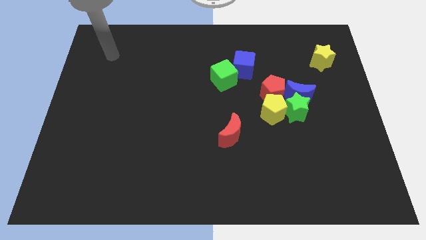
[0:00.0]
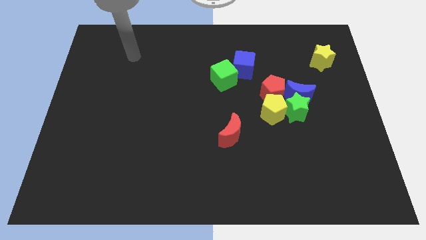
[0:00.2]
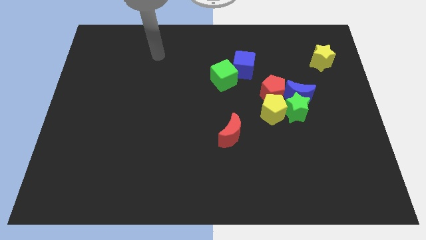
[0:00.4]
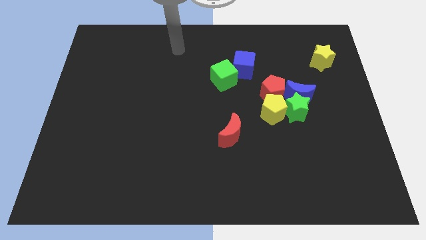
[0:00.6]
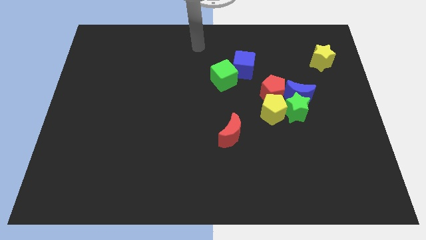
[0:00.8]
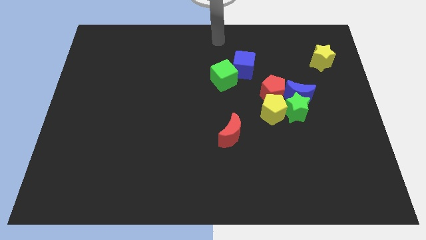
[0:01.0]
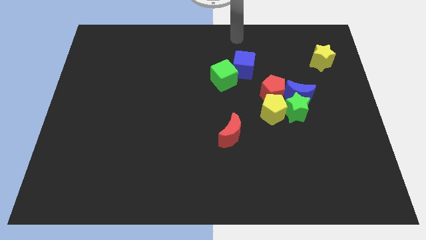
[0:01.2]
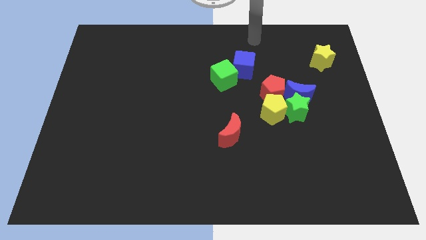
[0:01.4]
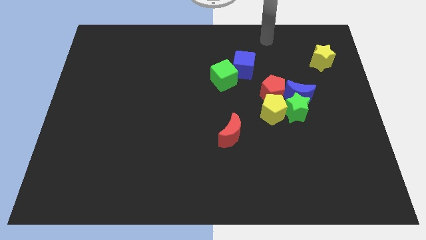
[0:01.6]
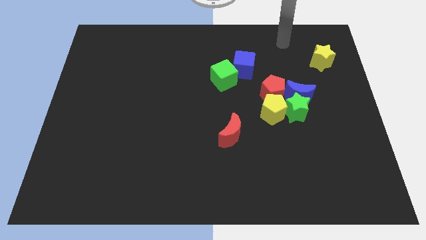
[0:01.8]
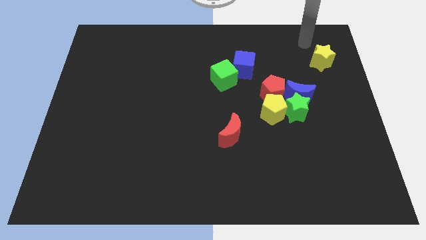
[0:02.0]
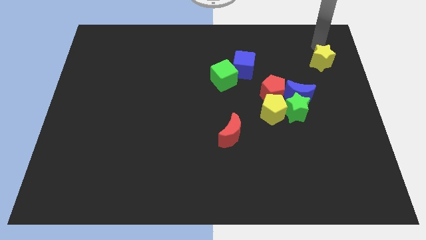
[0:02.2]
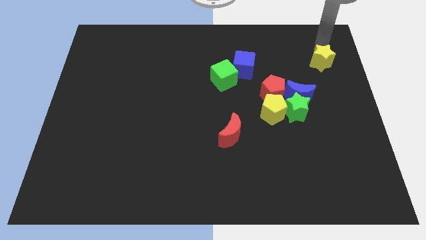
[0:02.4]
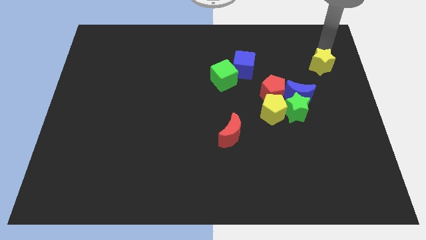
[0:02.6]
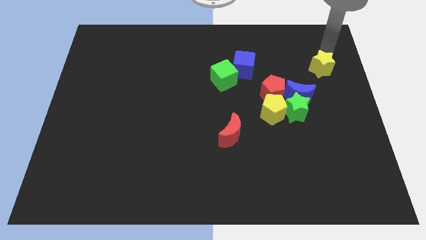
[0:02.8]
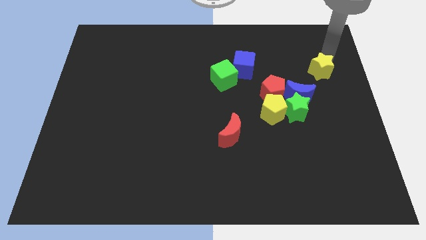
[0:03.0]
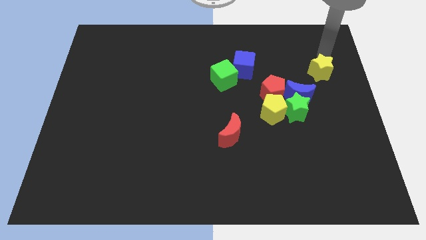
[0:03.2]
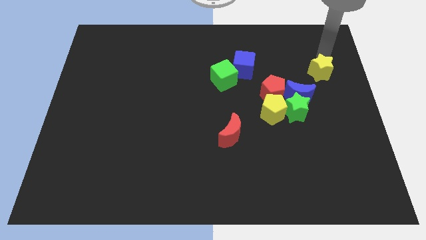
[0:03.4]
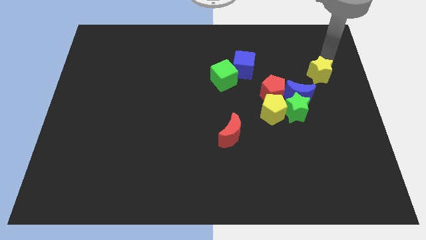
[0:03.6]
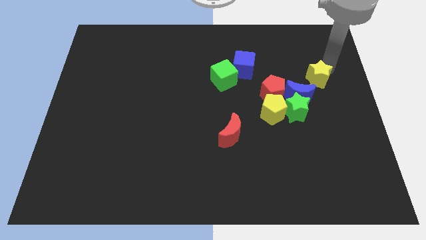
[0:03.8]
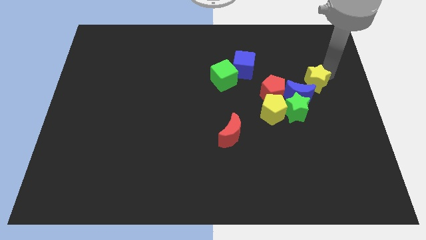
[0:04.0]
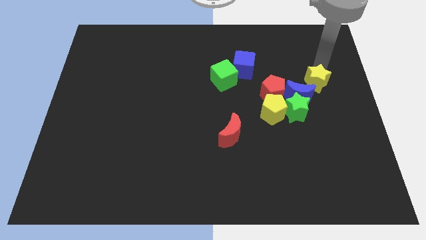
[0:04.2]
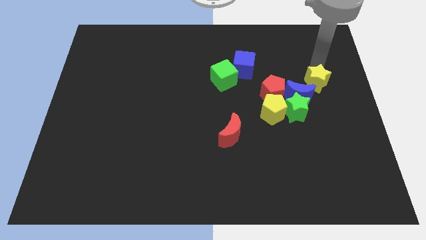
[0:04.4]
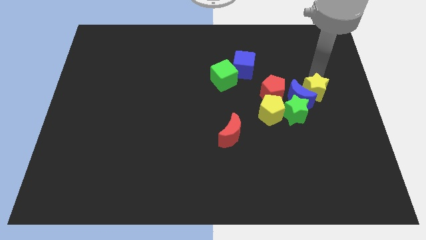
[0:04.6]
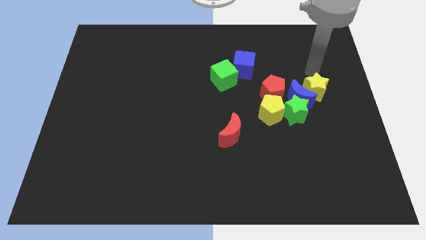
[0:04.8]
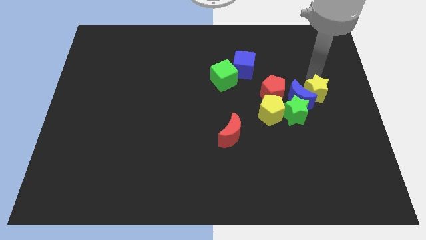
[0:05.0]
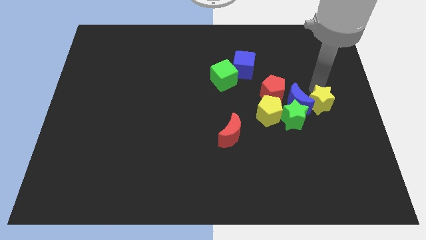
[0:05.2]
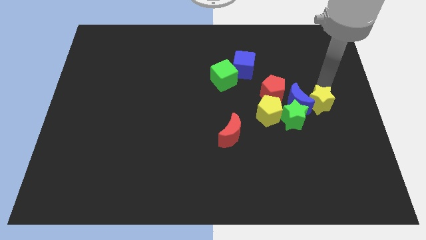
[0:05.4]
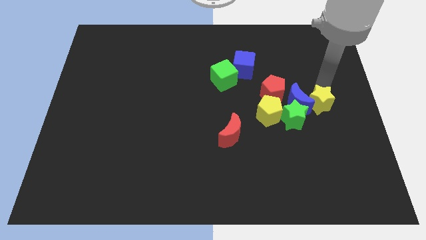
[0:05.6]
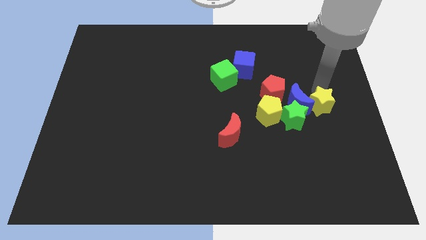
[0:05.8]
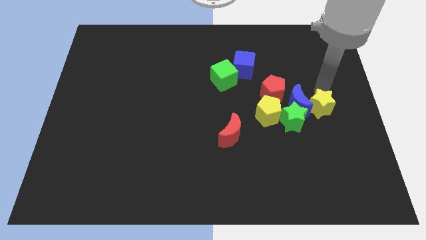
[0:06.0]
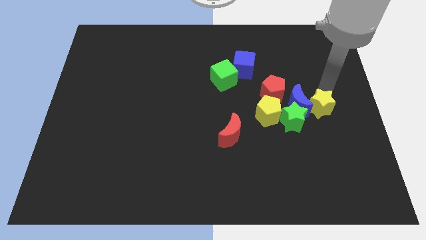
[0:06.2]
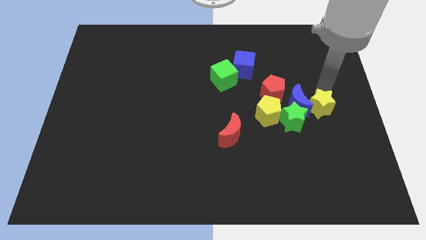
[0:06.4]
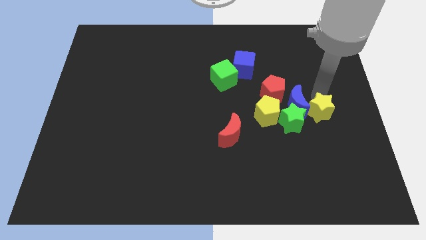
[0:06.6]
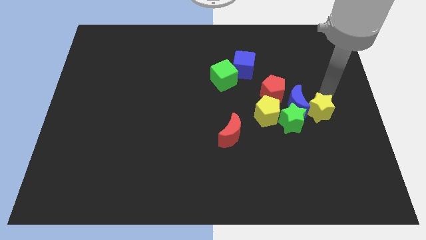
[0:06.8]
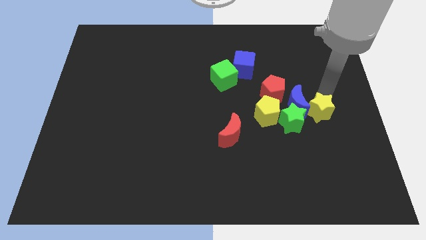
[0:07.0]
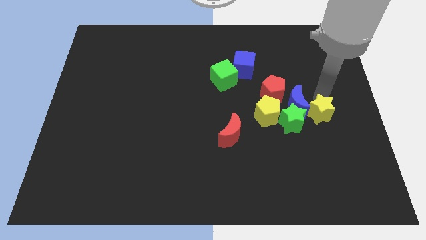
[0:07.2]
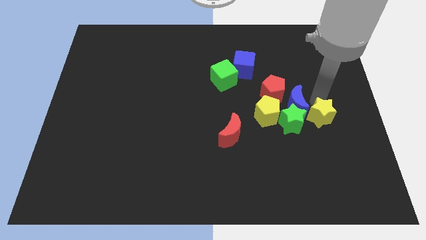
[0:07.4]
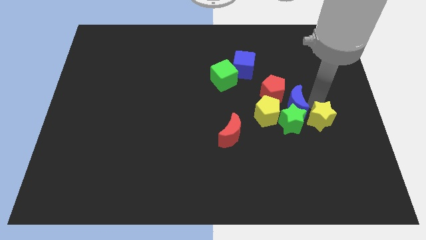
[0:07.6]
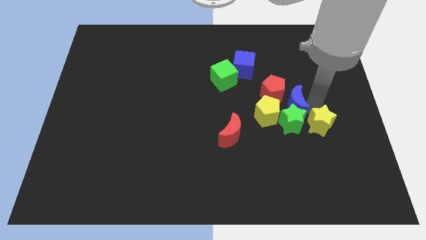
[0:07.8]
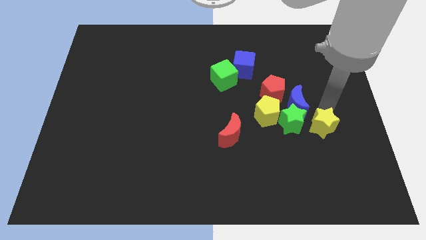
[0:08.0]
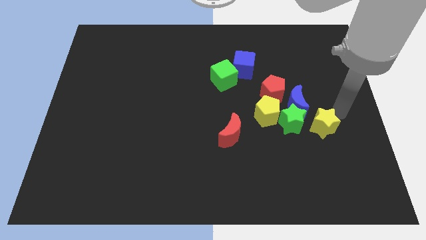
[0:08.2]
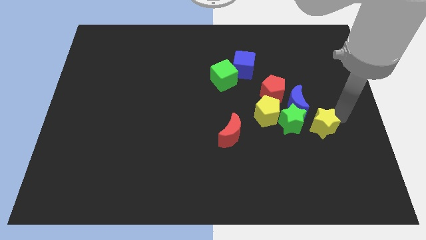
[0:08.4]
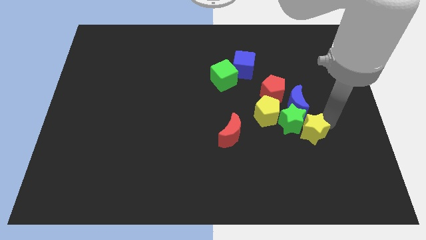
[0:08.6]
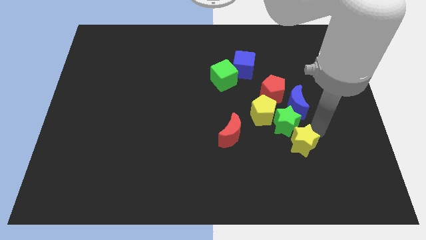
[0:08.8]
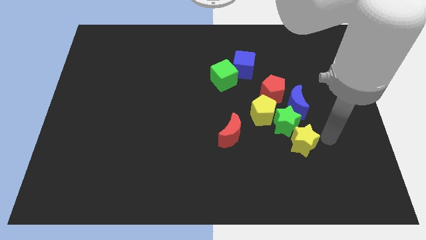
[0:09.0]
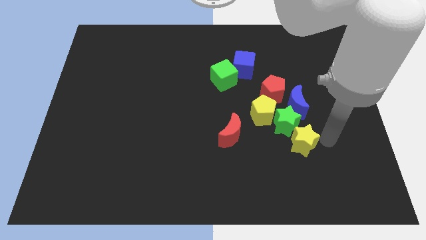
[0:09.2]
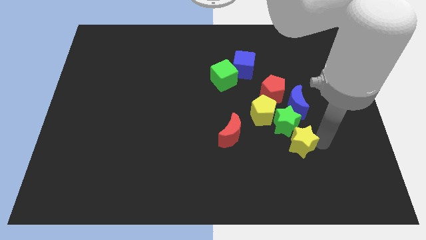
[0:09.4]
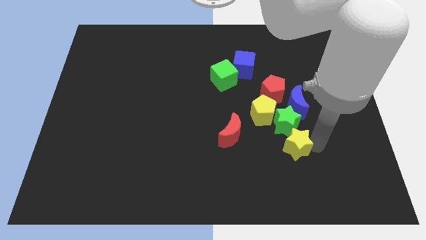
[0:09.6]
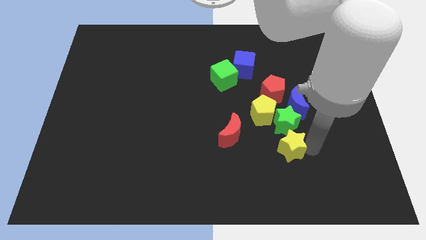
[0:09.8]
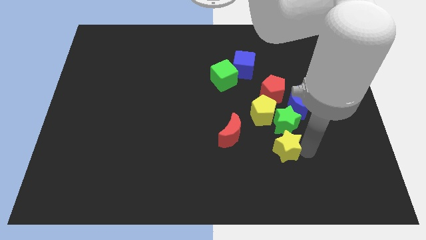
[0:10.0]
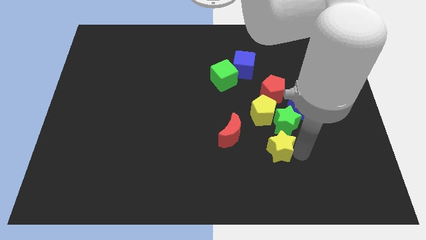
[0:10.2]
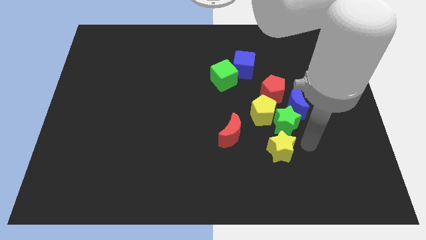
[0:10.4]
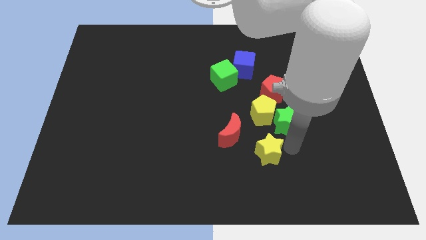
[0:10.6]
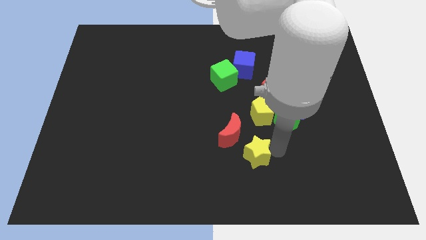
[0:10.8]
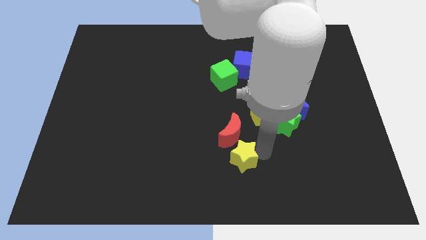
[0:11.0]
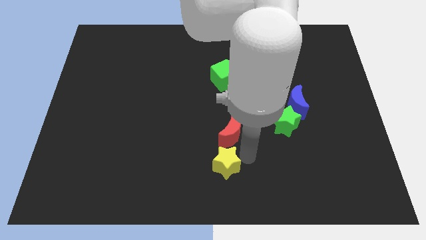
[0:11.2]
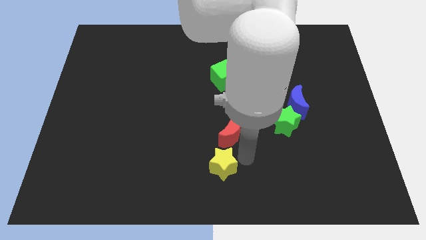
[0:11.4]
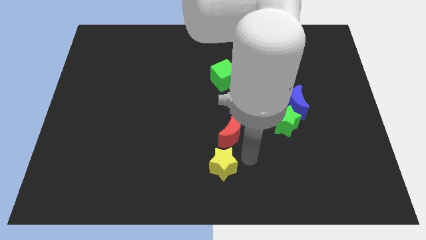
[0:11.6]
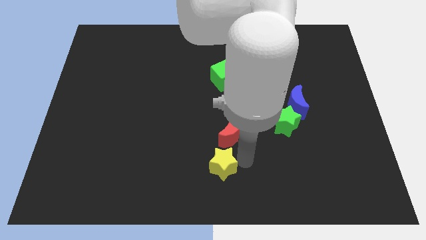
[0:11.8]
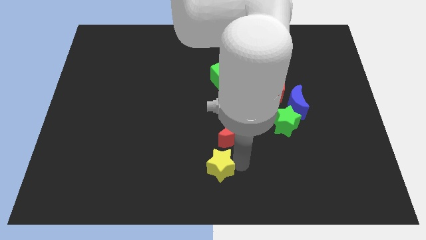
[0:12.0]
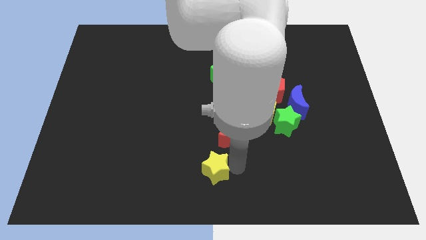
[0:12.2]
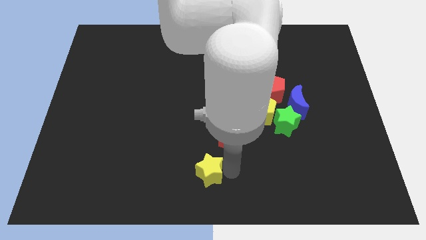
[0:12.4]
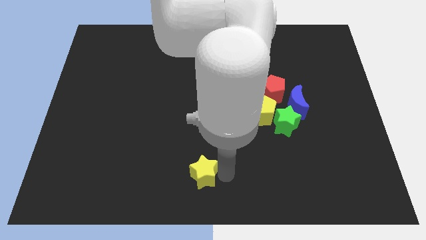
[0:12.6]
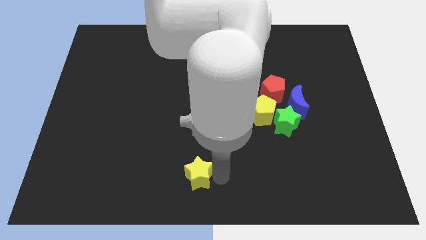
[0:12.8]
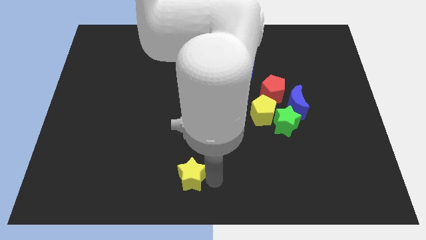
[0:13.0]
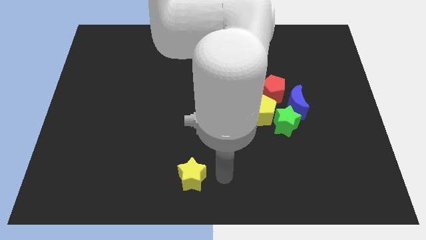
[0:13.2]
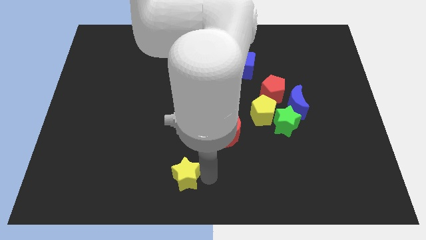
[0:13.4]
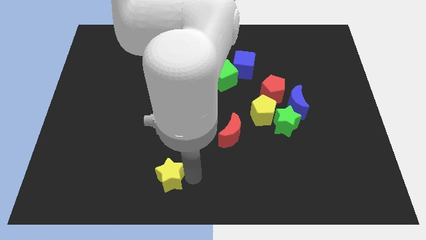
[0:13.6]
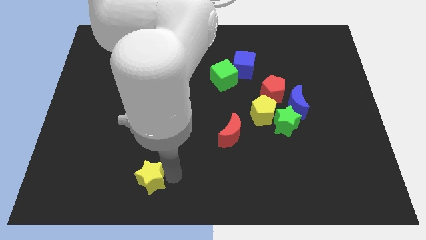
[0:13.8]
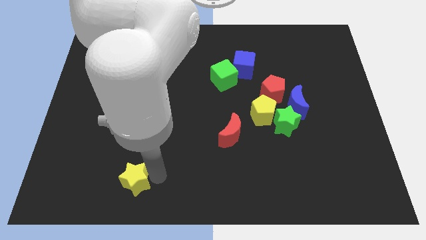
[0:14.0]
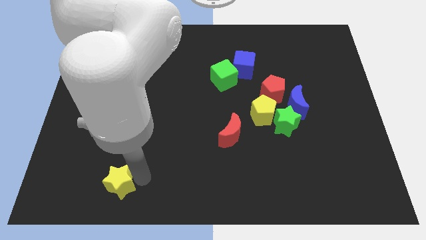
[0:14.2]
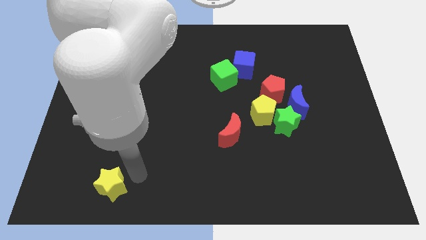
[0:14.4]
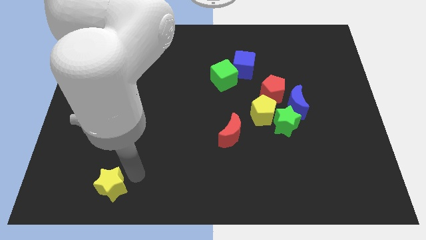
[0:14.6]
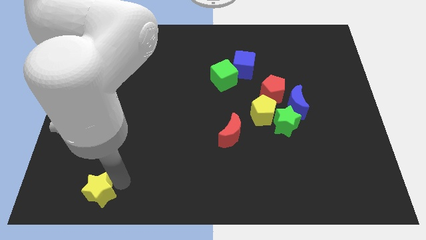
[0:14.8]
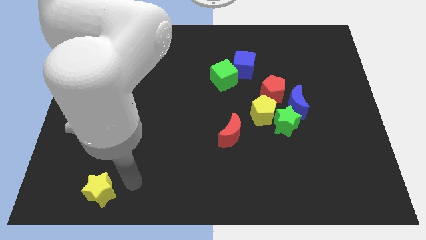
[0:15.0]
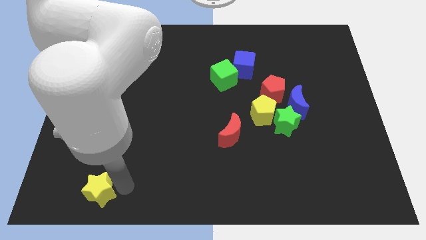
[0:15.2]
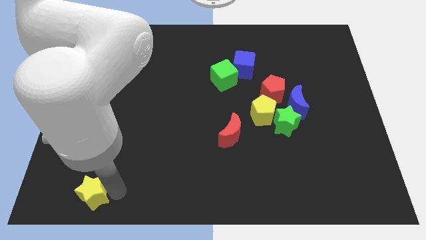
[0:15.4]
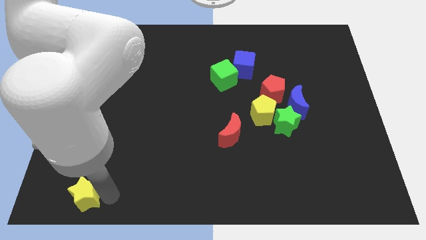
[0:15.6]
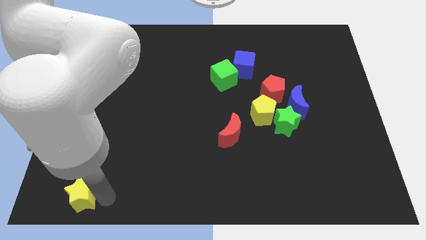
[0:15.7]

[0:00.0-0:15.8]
slide the yellow star to the lower left corner
